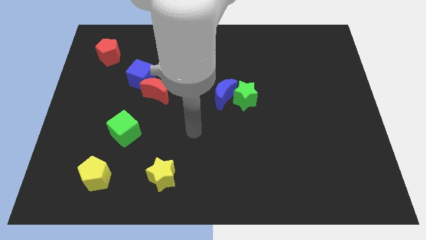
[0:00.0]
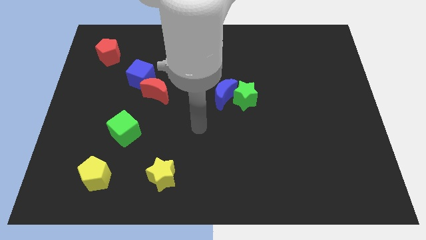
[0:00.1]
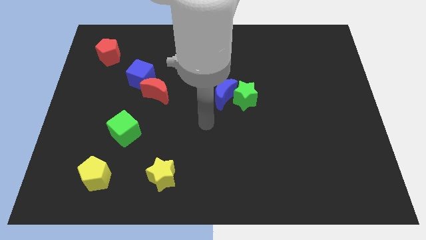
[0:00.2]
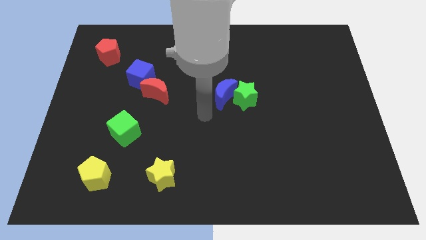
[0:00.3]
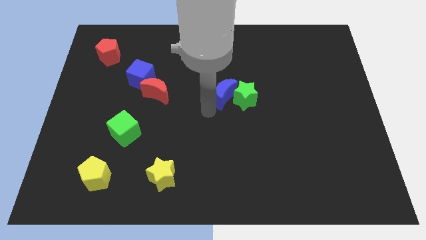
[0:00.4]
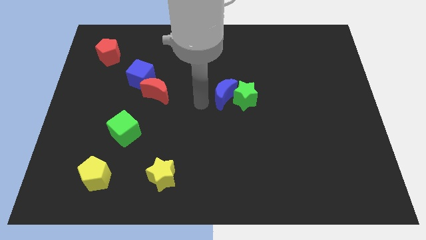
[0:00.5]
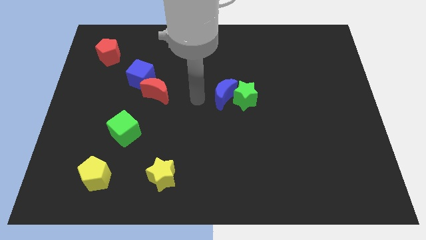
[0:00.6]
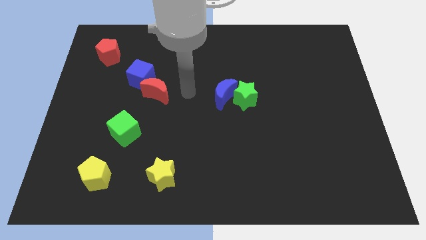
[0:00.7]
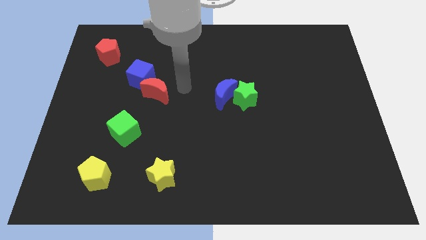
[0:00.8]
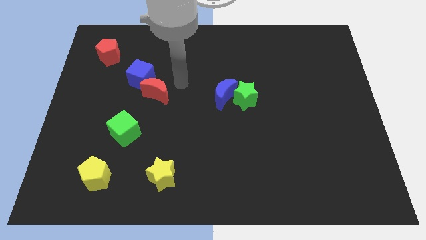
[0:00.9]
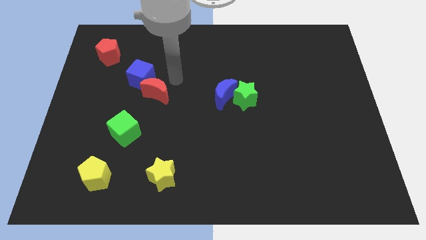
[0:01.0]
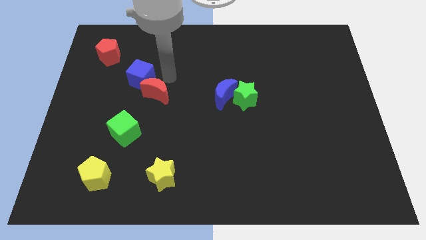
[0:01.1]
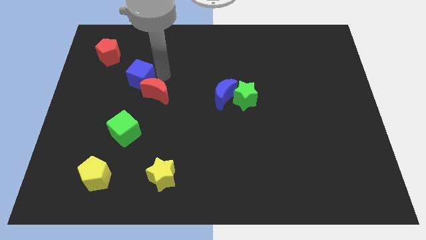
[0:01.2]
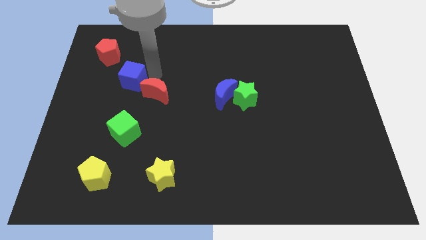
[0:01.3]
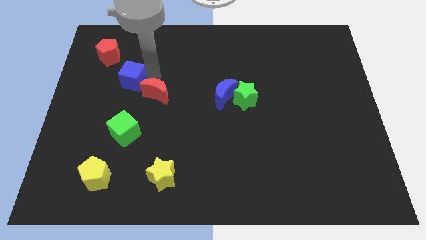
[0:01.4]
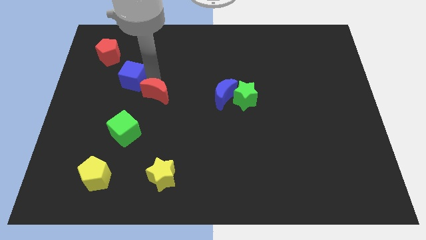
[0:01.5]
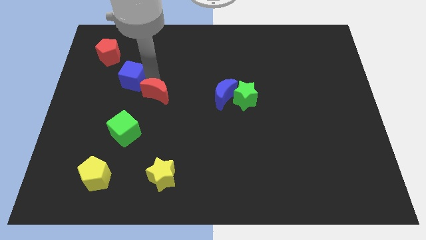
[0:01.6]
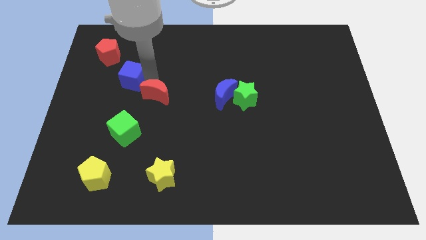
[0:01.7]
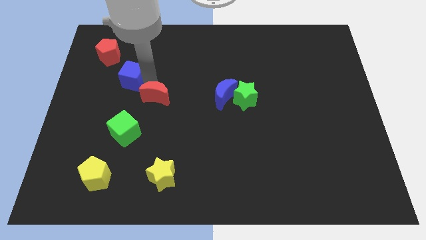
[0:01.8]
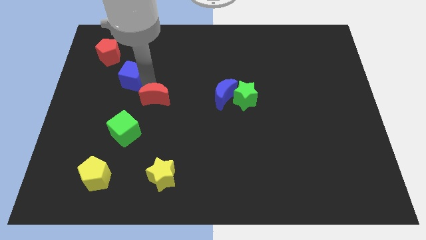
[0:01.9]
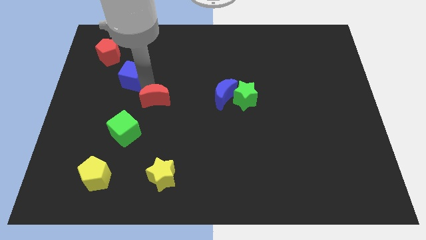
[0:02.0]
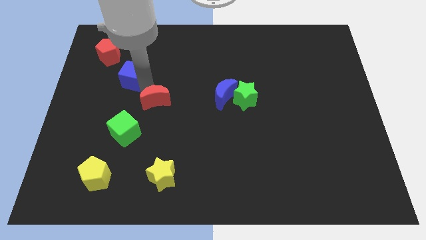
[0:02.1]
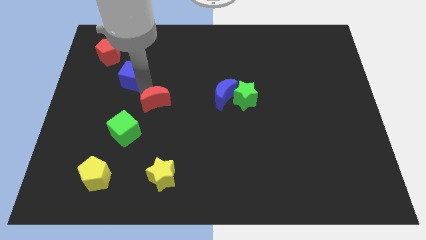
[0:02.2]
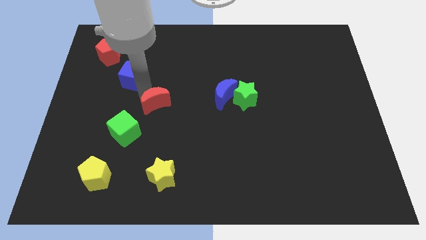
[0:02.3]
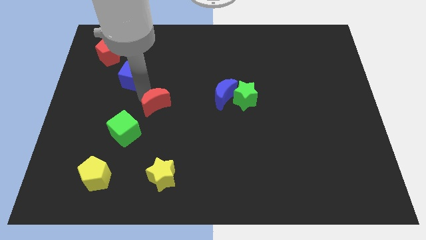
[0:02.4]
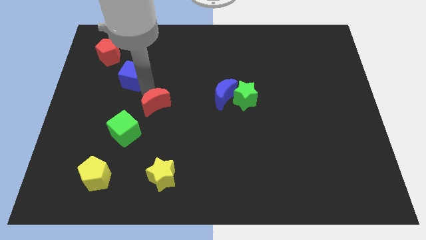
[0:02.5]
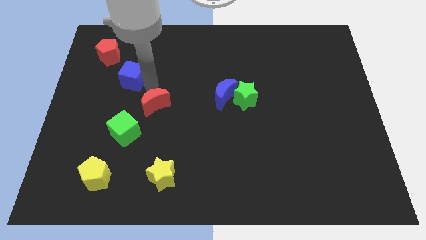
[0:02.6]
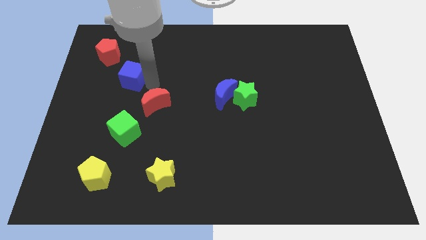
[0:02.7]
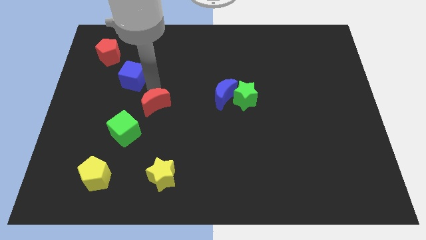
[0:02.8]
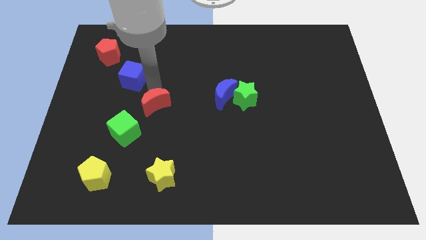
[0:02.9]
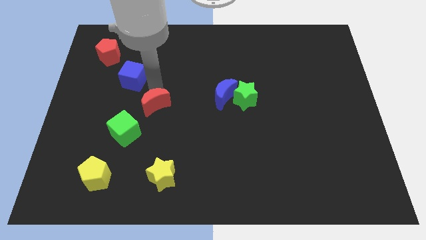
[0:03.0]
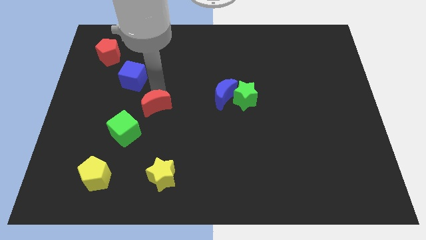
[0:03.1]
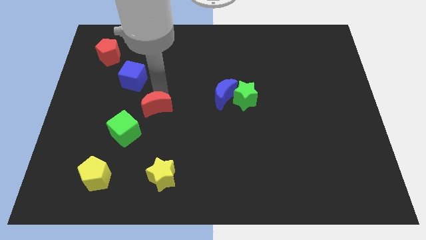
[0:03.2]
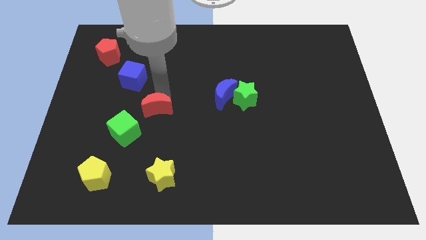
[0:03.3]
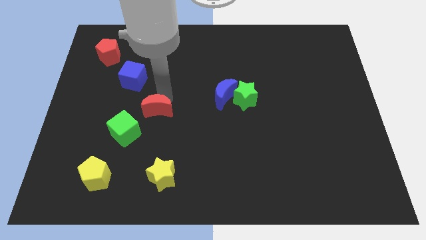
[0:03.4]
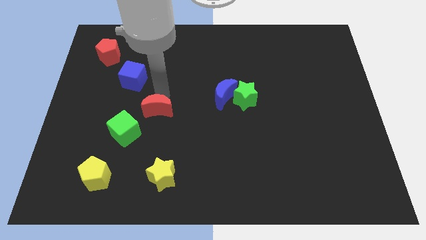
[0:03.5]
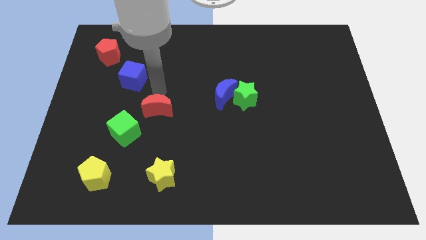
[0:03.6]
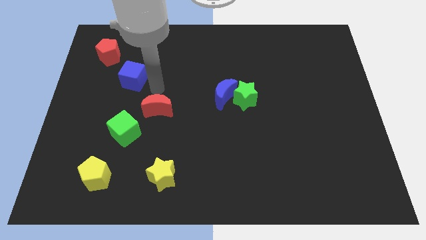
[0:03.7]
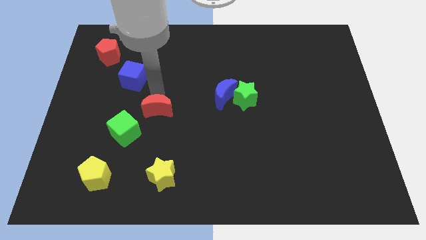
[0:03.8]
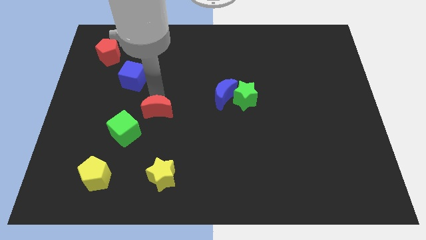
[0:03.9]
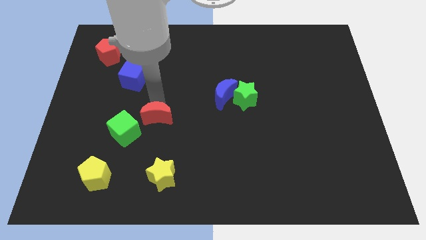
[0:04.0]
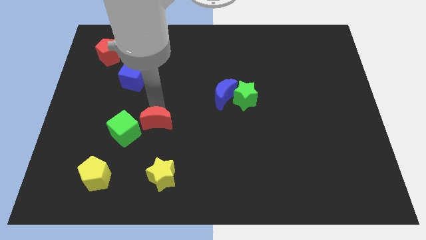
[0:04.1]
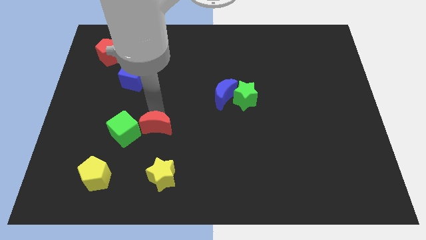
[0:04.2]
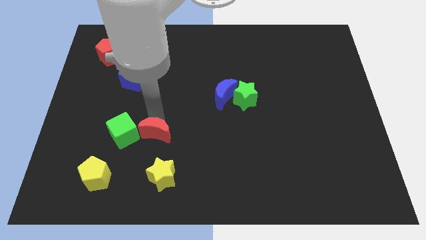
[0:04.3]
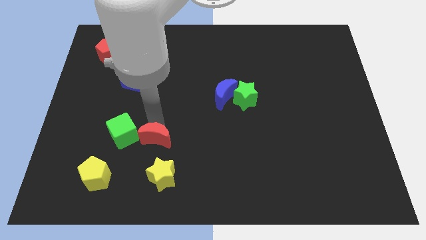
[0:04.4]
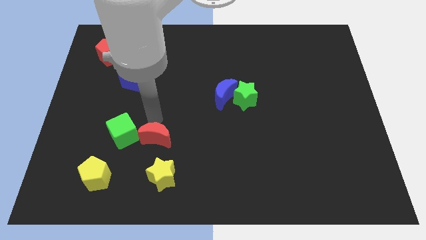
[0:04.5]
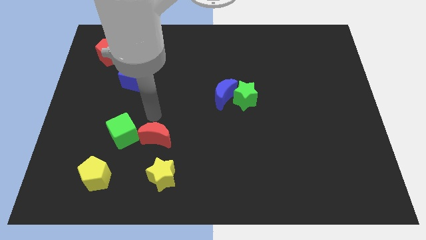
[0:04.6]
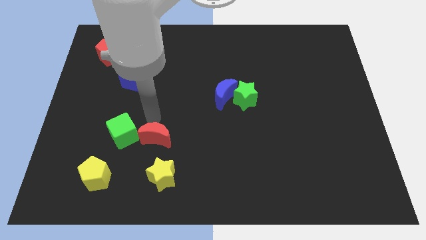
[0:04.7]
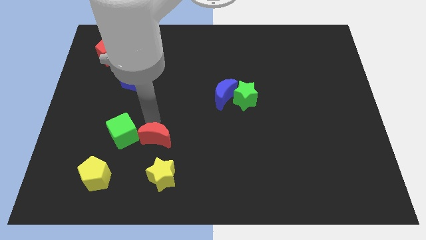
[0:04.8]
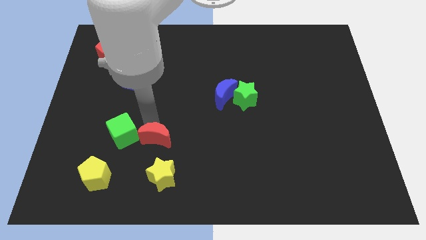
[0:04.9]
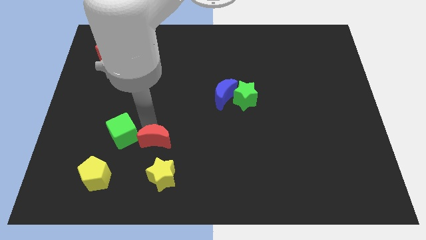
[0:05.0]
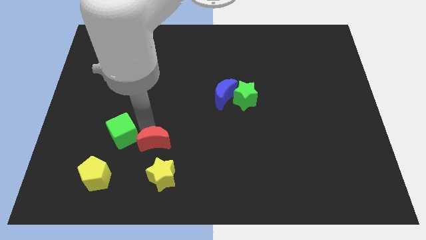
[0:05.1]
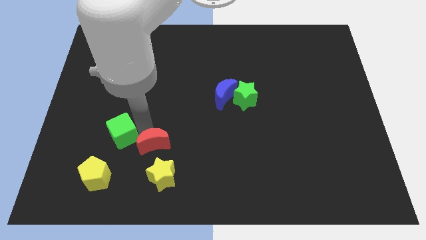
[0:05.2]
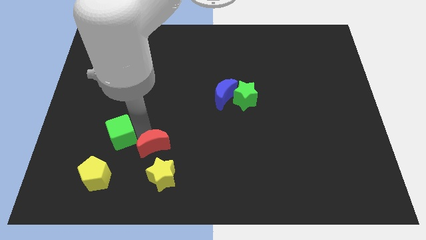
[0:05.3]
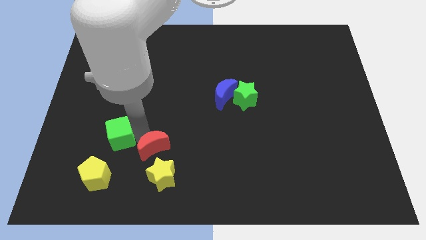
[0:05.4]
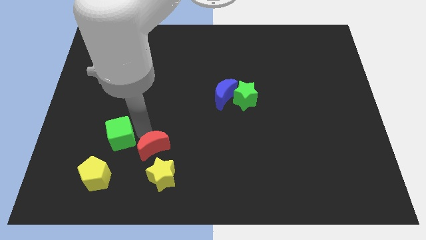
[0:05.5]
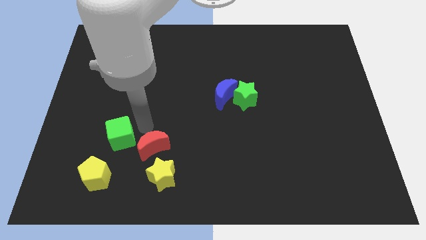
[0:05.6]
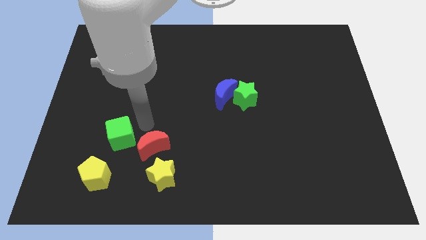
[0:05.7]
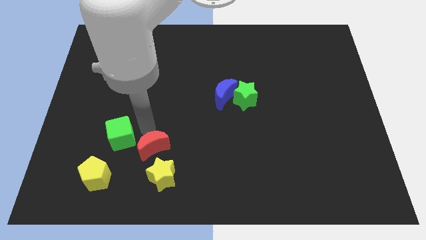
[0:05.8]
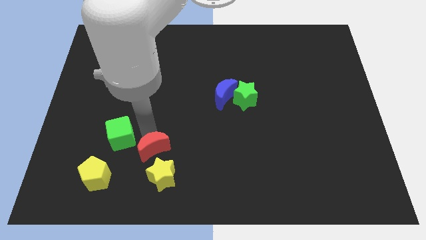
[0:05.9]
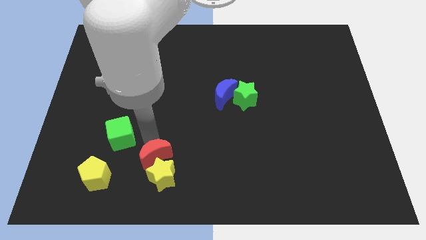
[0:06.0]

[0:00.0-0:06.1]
slide the red moon towards the yellow star
